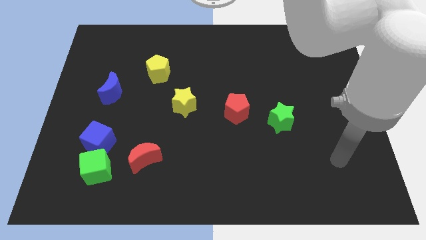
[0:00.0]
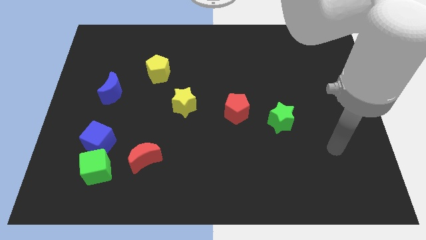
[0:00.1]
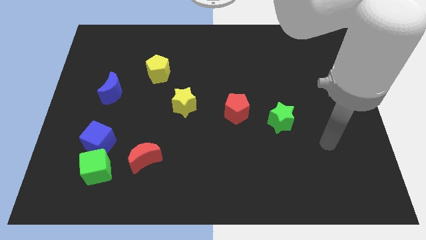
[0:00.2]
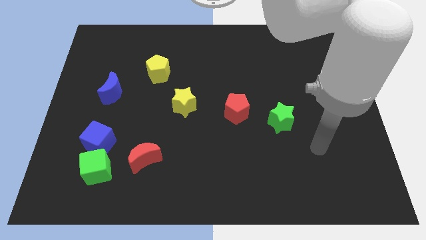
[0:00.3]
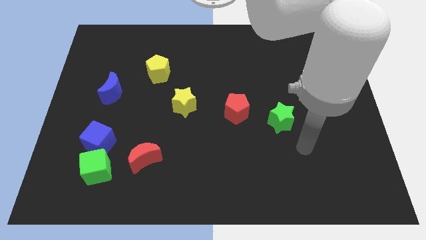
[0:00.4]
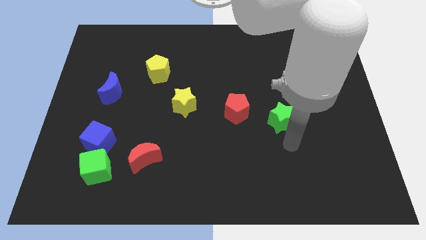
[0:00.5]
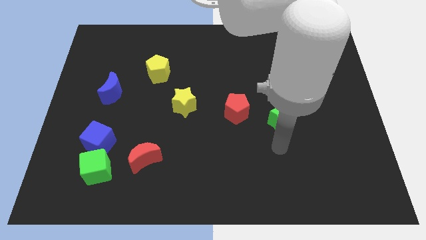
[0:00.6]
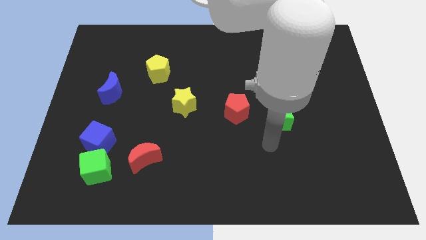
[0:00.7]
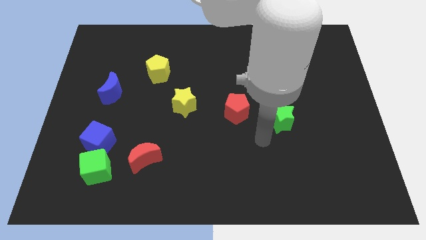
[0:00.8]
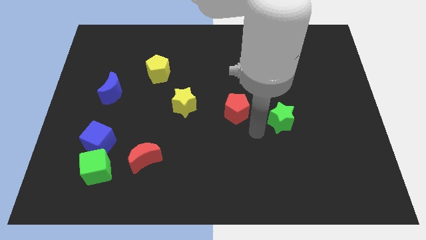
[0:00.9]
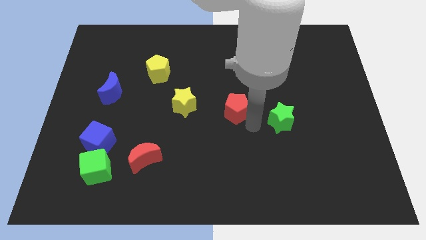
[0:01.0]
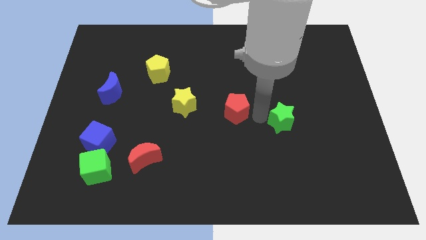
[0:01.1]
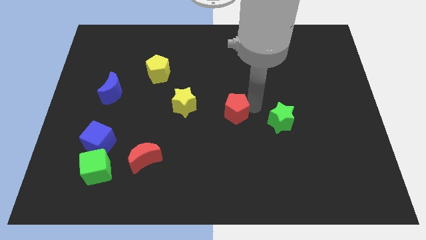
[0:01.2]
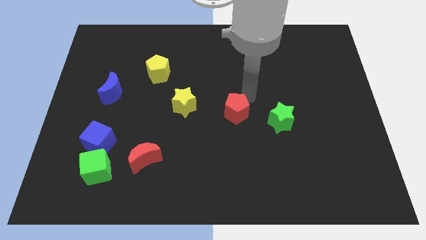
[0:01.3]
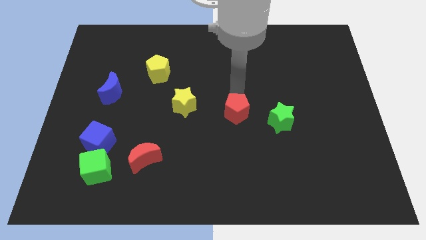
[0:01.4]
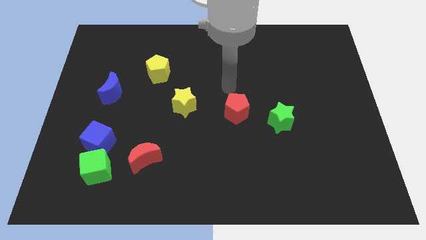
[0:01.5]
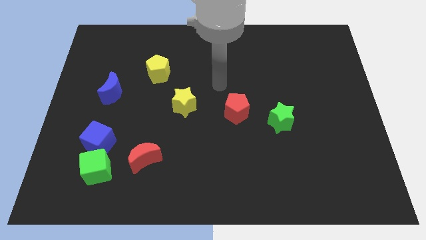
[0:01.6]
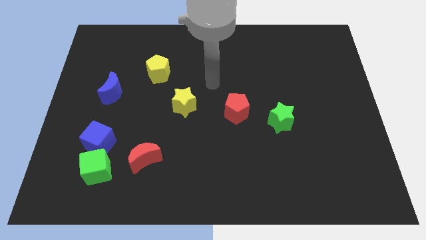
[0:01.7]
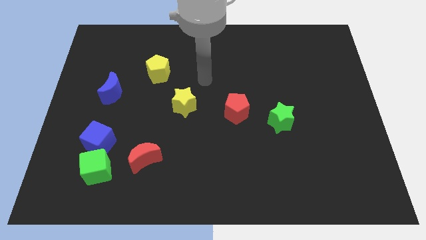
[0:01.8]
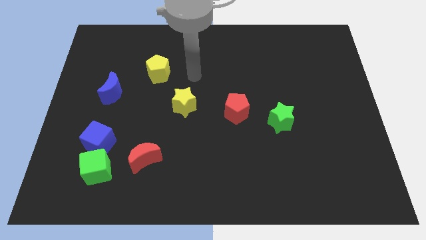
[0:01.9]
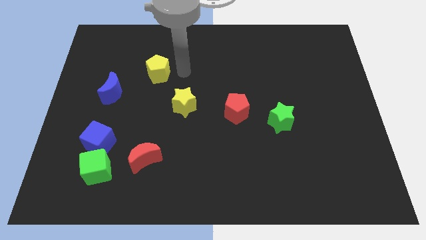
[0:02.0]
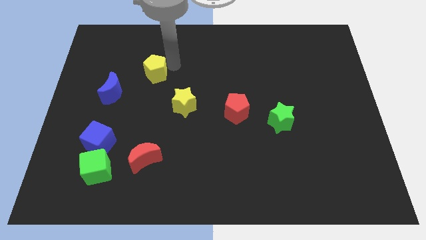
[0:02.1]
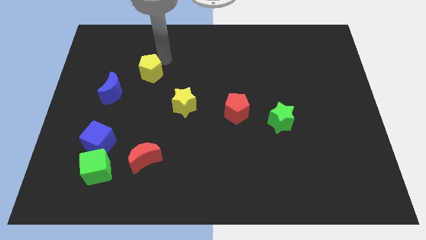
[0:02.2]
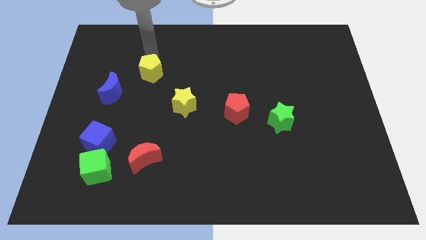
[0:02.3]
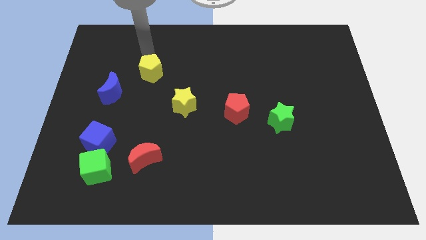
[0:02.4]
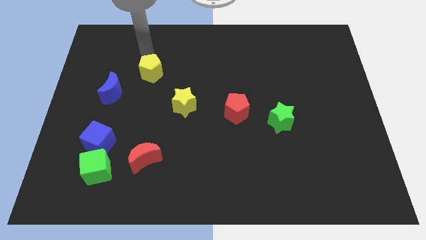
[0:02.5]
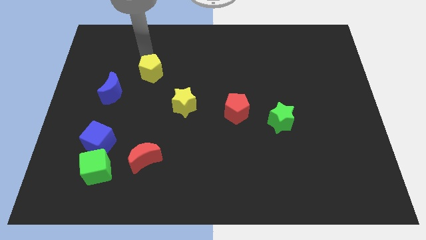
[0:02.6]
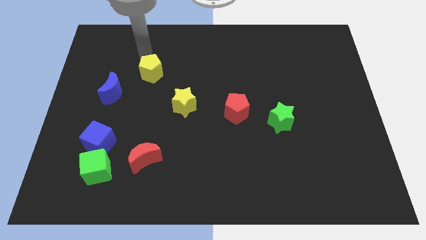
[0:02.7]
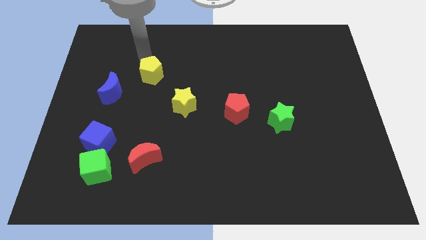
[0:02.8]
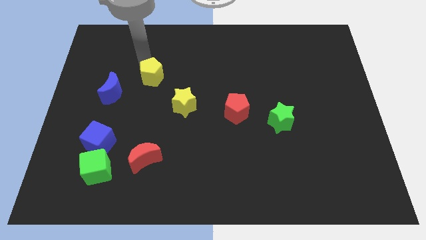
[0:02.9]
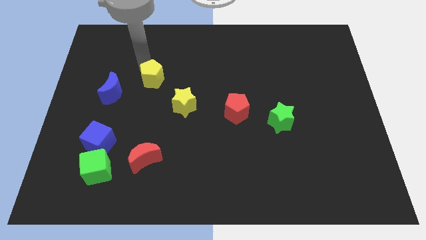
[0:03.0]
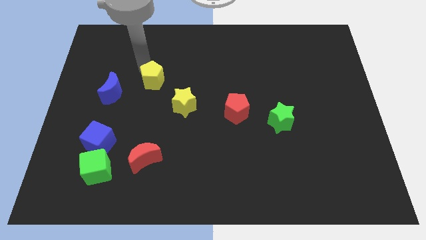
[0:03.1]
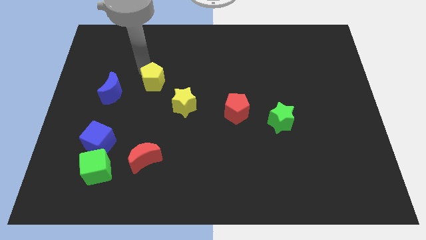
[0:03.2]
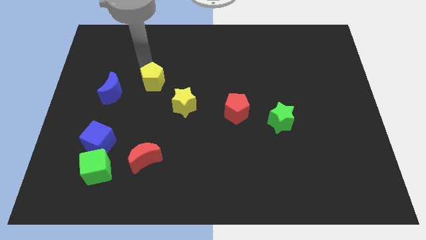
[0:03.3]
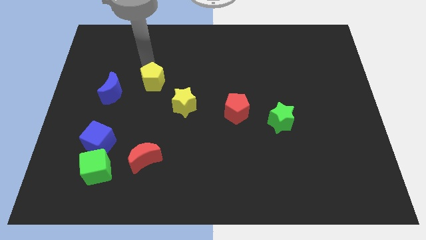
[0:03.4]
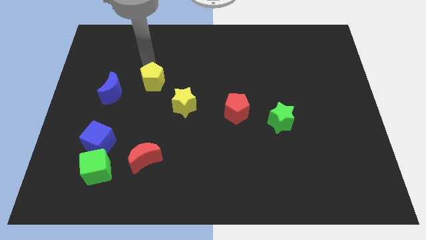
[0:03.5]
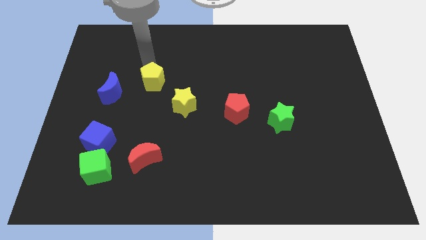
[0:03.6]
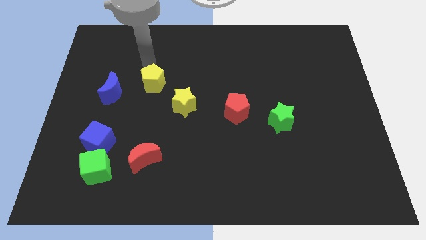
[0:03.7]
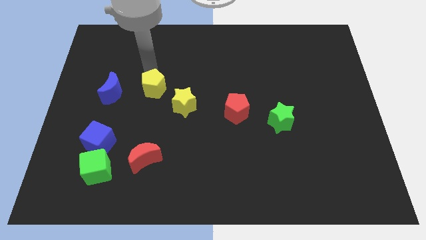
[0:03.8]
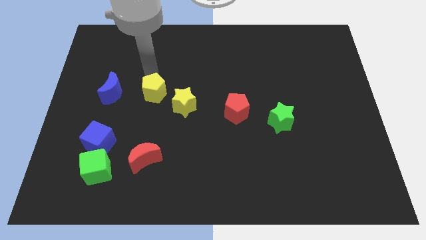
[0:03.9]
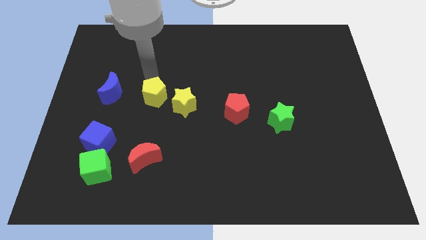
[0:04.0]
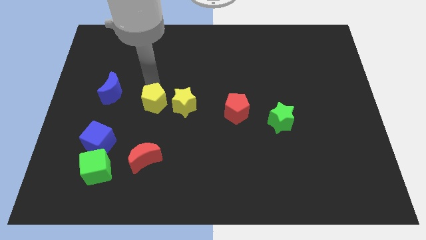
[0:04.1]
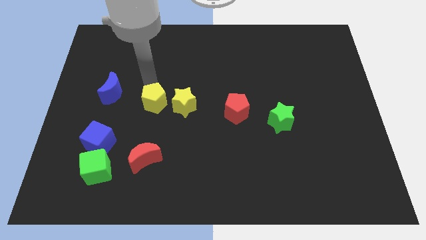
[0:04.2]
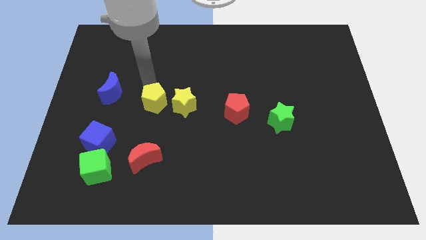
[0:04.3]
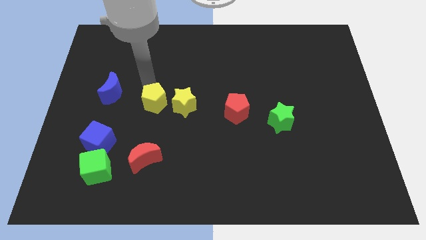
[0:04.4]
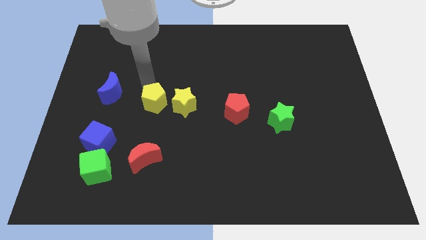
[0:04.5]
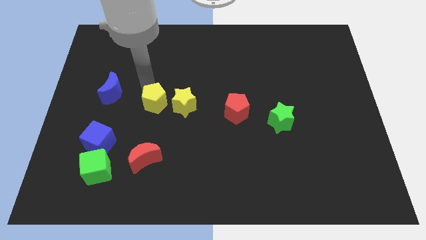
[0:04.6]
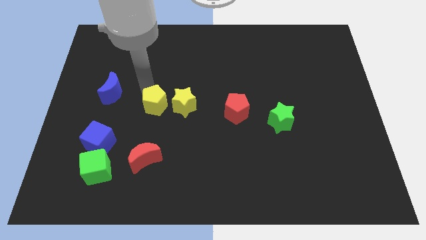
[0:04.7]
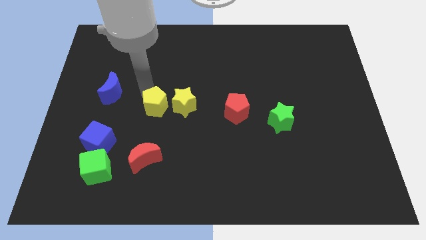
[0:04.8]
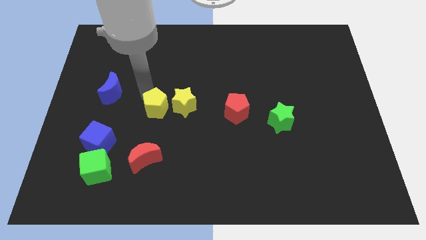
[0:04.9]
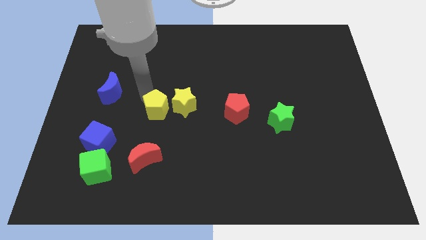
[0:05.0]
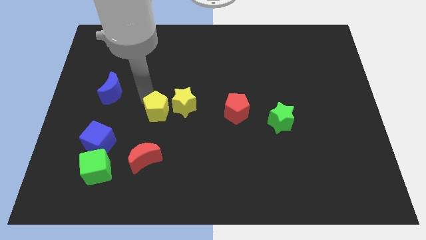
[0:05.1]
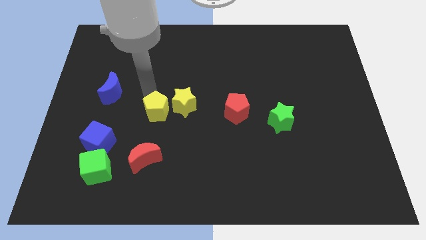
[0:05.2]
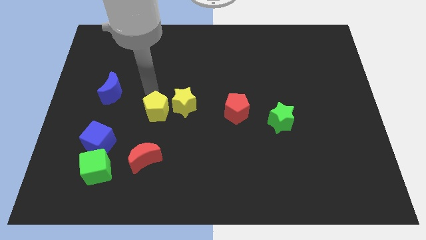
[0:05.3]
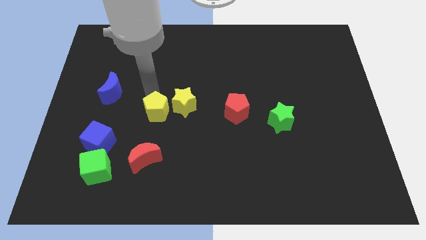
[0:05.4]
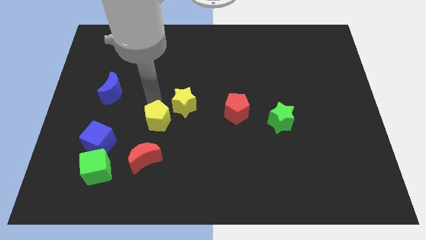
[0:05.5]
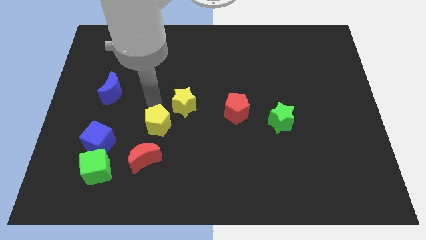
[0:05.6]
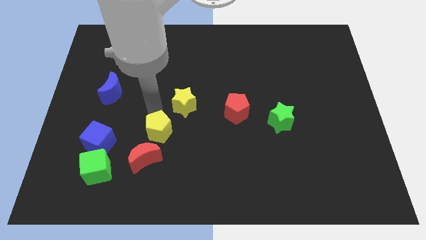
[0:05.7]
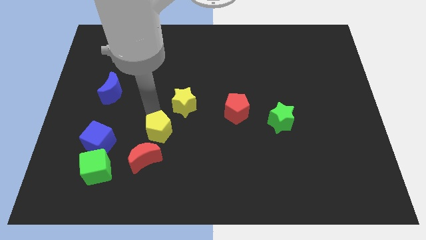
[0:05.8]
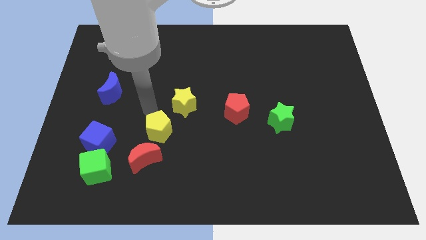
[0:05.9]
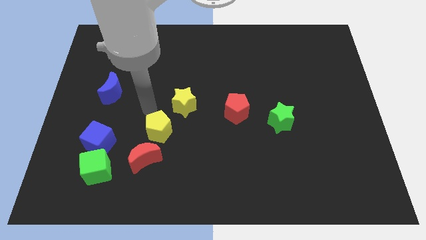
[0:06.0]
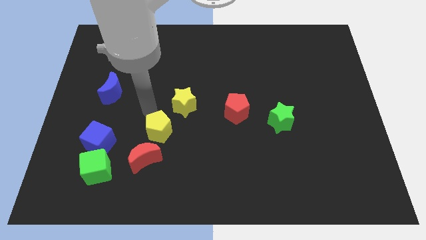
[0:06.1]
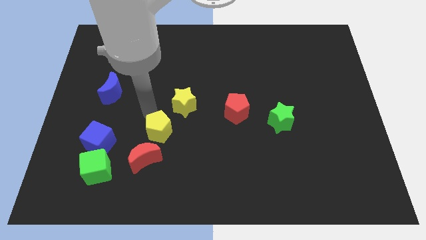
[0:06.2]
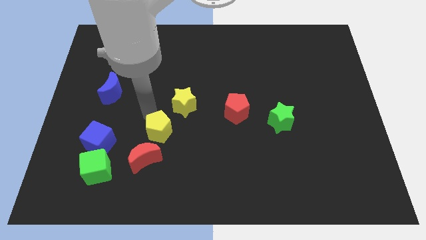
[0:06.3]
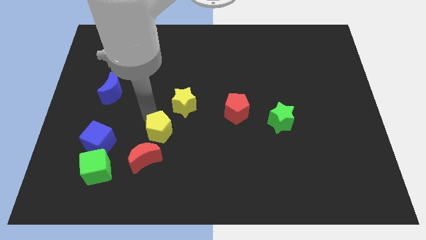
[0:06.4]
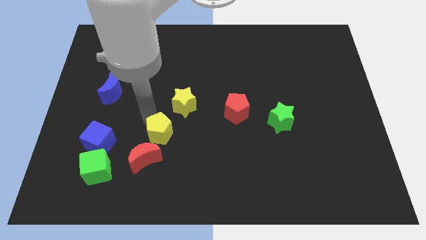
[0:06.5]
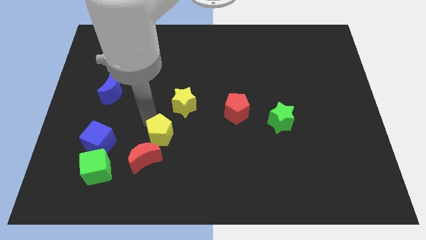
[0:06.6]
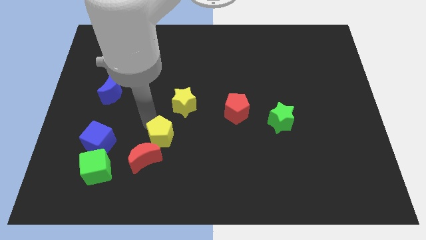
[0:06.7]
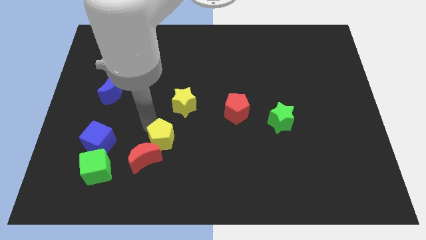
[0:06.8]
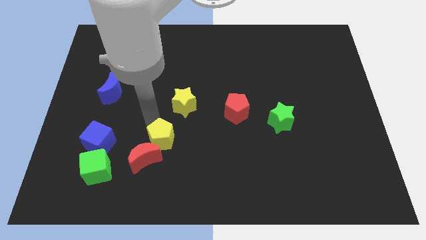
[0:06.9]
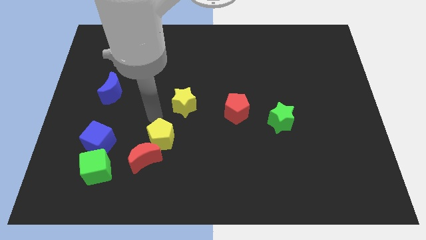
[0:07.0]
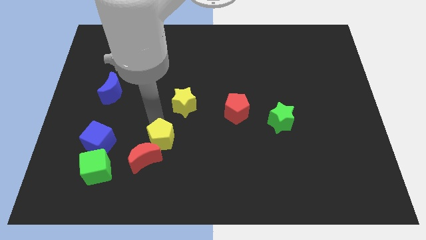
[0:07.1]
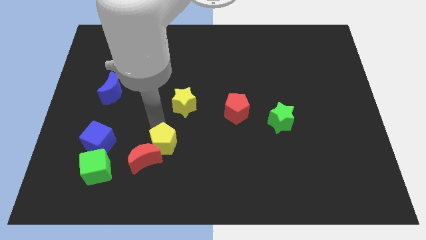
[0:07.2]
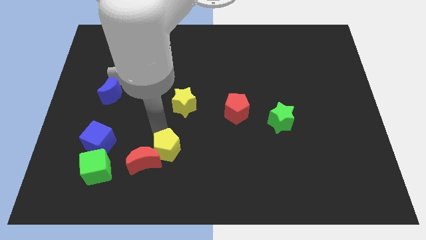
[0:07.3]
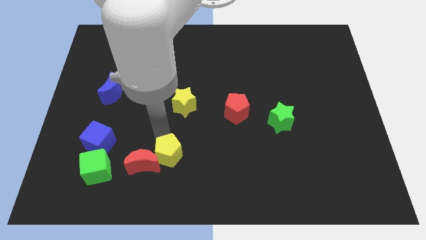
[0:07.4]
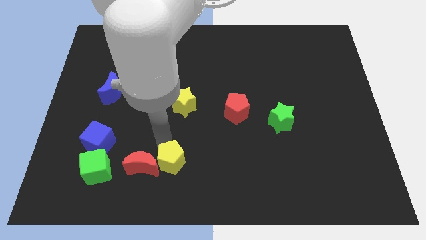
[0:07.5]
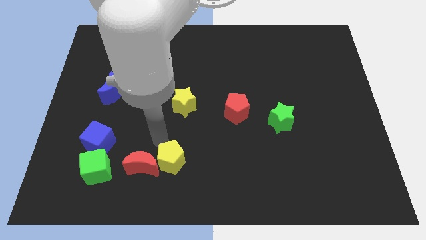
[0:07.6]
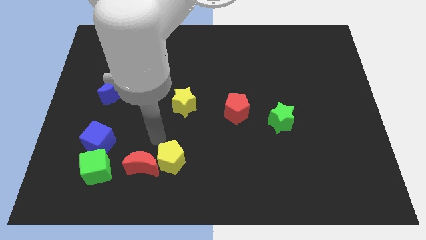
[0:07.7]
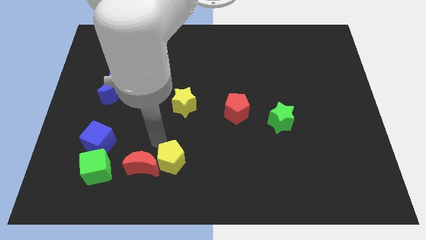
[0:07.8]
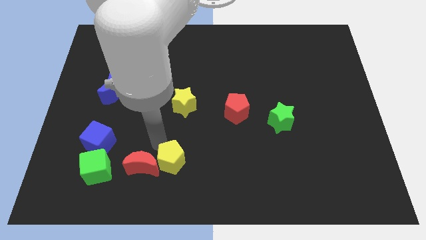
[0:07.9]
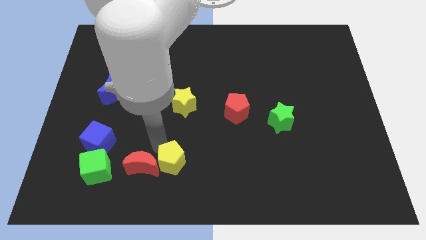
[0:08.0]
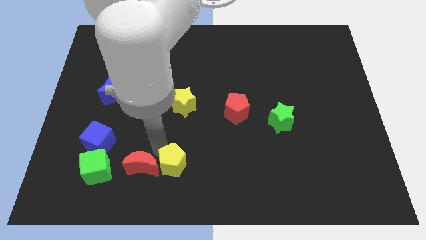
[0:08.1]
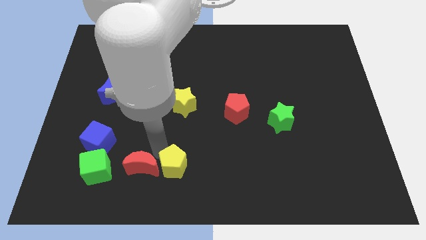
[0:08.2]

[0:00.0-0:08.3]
slide the yellow pentagon to the bottom side
